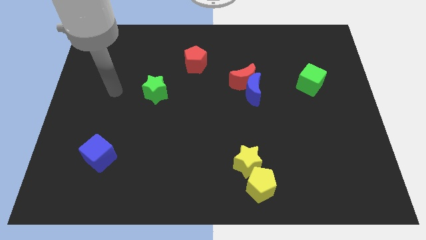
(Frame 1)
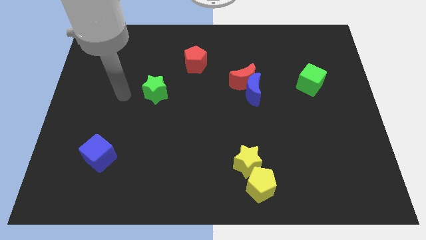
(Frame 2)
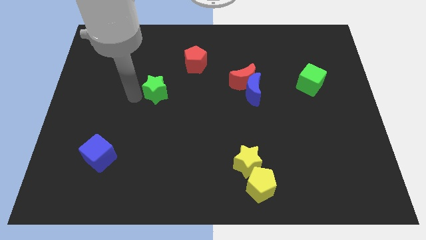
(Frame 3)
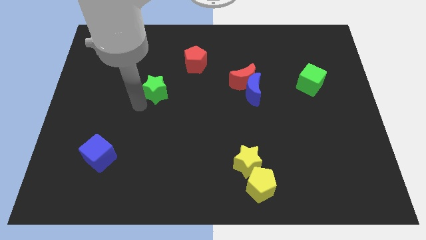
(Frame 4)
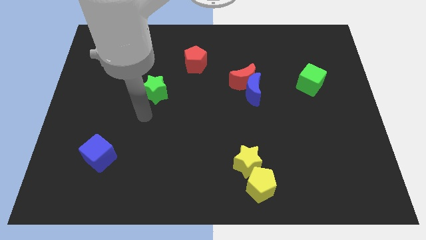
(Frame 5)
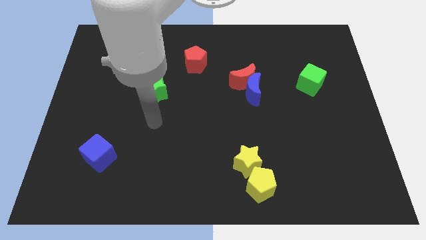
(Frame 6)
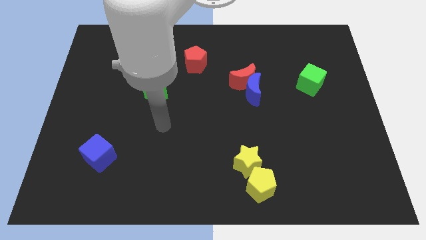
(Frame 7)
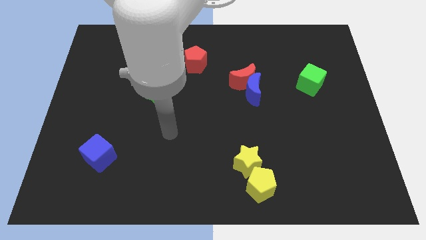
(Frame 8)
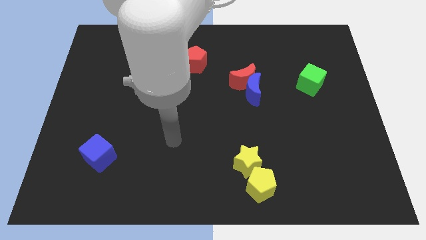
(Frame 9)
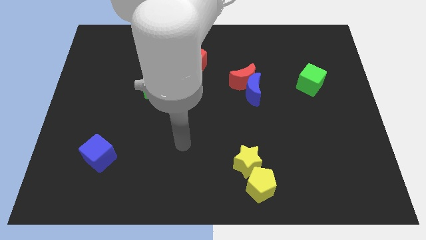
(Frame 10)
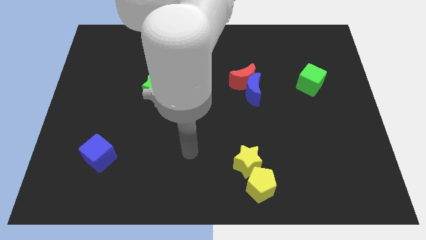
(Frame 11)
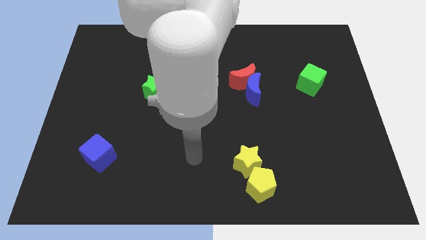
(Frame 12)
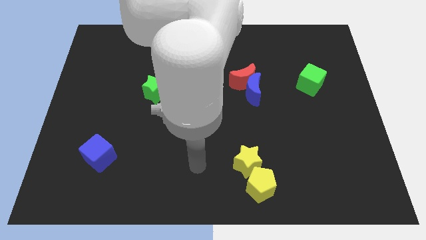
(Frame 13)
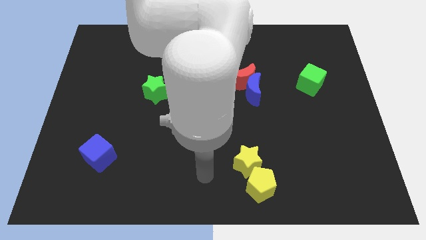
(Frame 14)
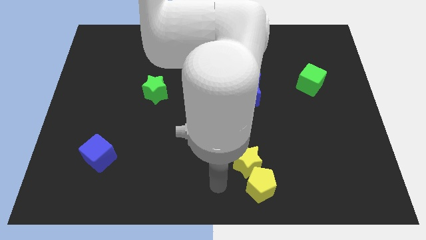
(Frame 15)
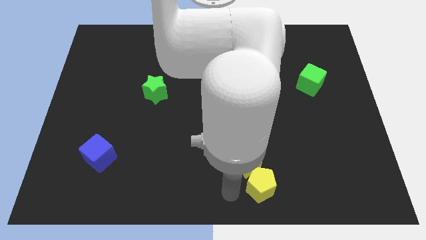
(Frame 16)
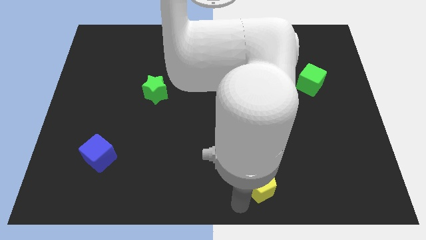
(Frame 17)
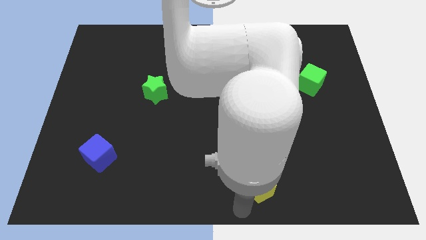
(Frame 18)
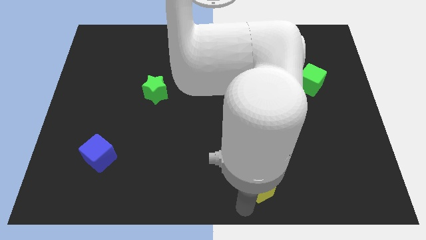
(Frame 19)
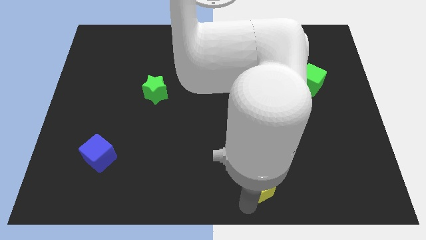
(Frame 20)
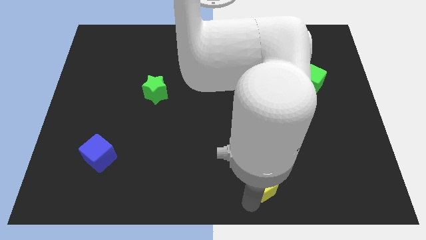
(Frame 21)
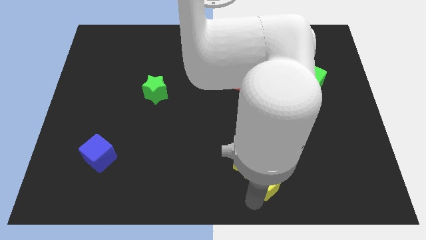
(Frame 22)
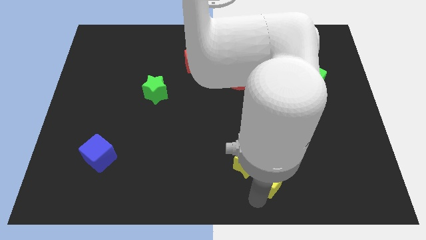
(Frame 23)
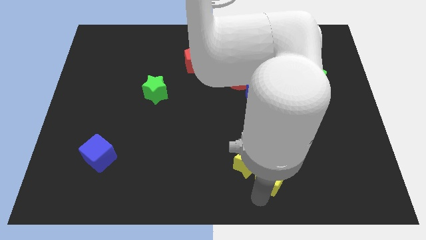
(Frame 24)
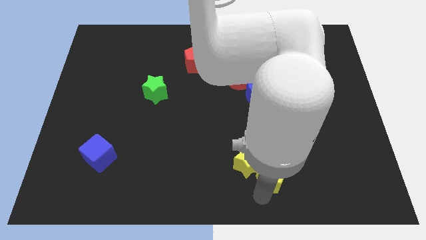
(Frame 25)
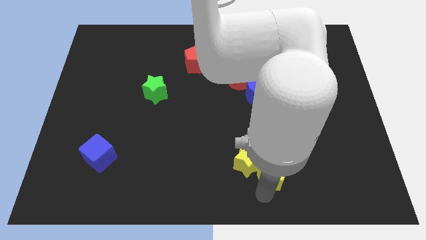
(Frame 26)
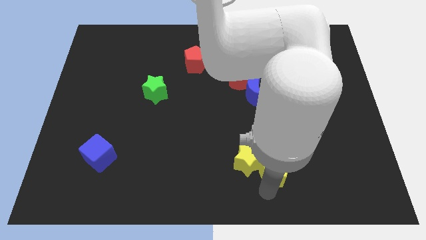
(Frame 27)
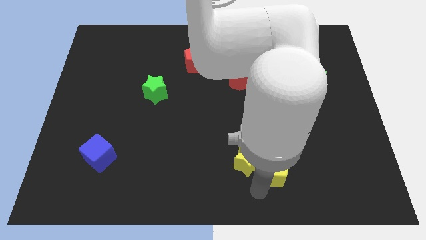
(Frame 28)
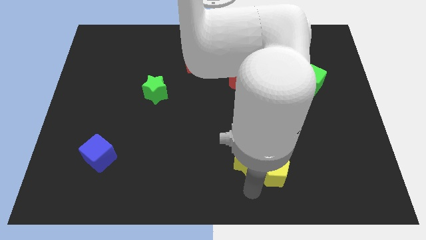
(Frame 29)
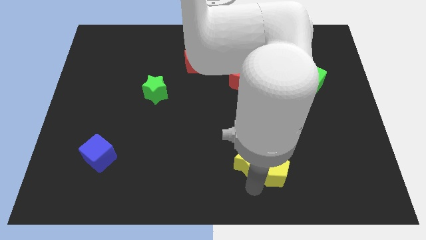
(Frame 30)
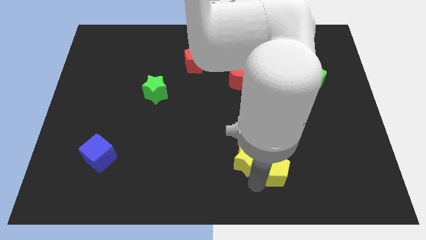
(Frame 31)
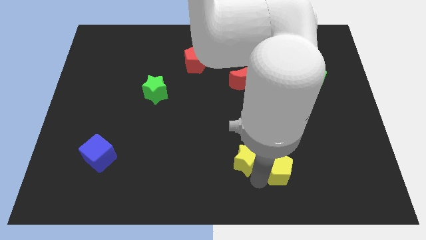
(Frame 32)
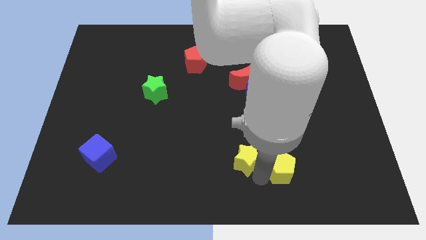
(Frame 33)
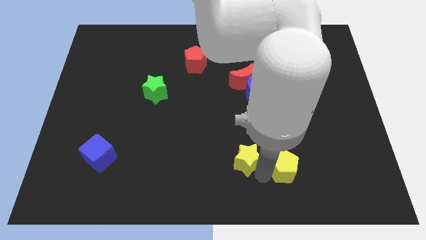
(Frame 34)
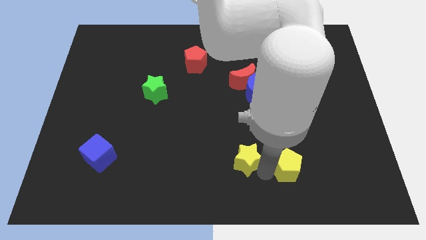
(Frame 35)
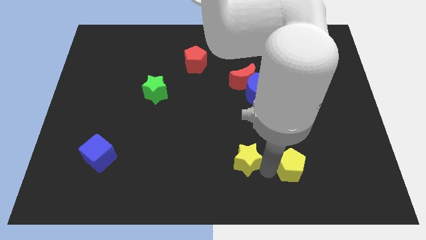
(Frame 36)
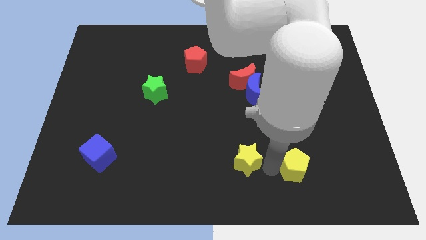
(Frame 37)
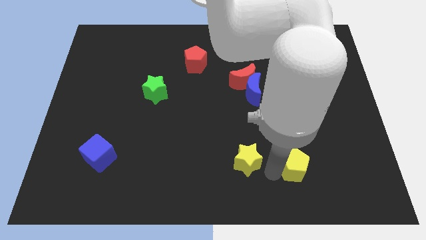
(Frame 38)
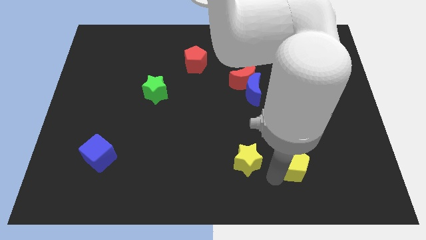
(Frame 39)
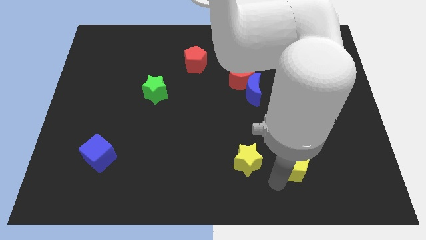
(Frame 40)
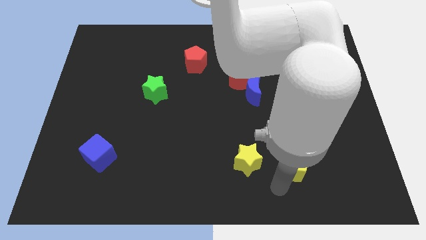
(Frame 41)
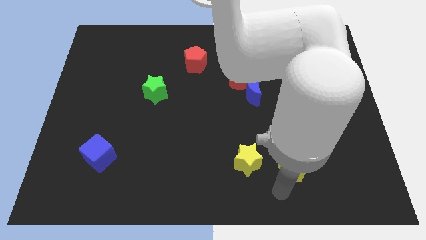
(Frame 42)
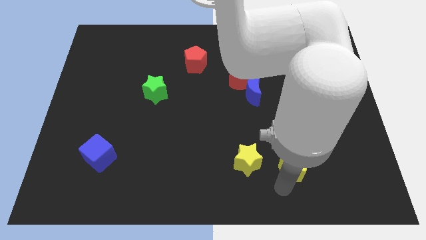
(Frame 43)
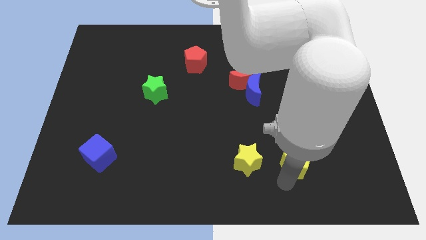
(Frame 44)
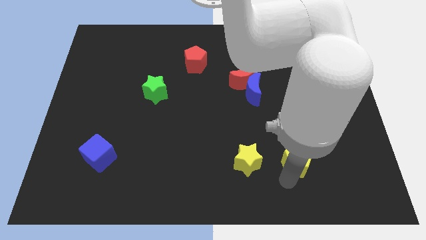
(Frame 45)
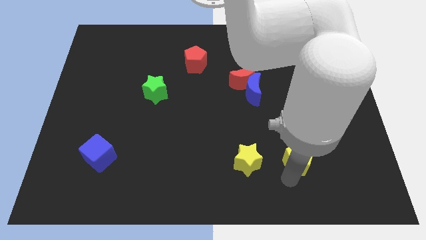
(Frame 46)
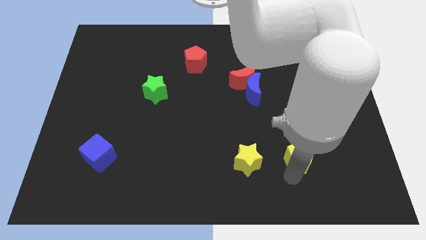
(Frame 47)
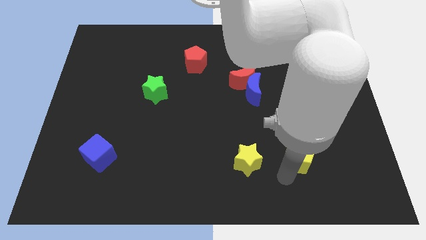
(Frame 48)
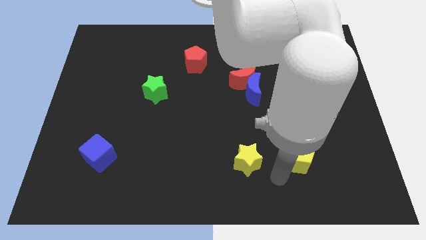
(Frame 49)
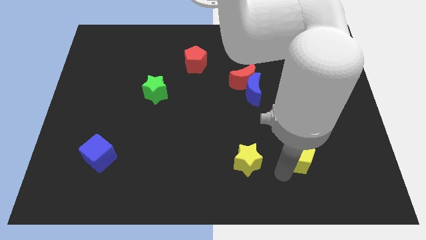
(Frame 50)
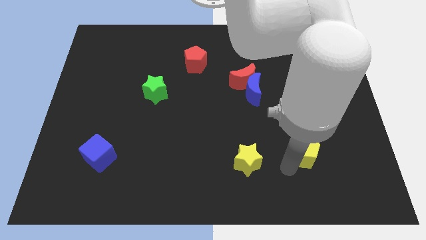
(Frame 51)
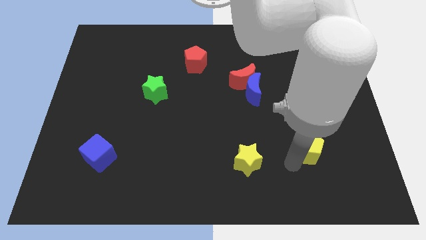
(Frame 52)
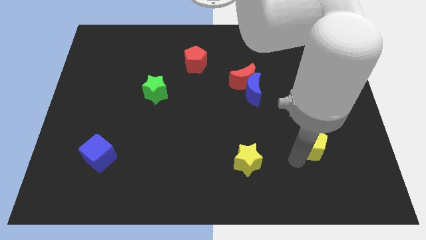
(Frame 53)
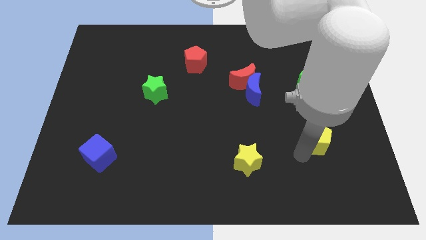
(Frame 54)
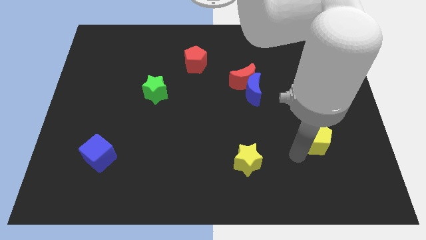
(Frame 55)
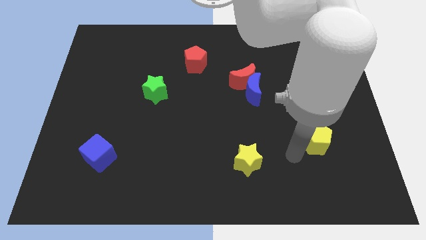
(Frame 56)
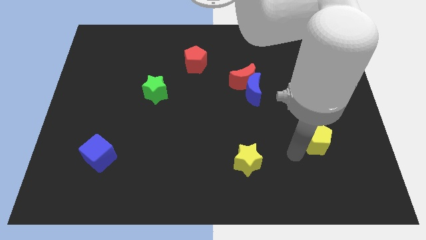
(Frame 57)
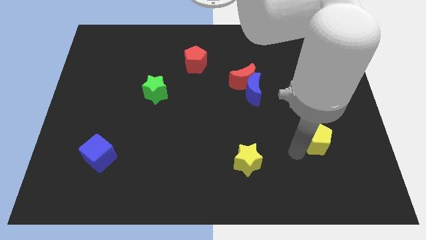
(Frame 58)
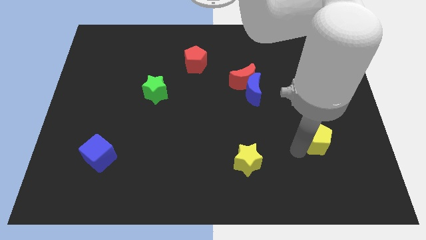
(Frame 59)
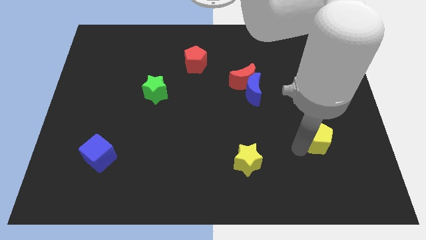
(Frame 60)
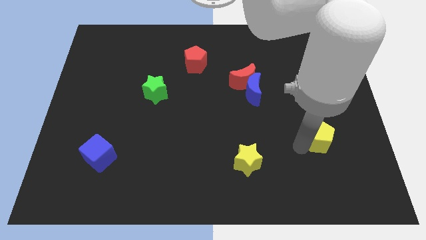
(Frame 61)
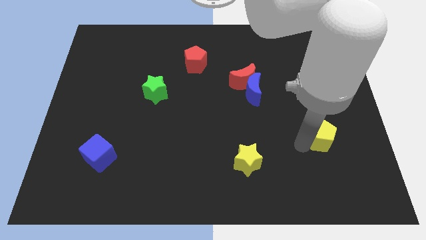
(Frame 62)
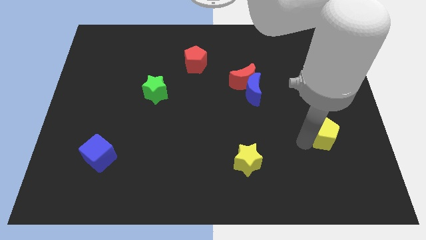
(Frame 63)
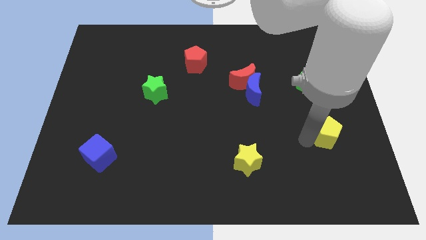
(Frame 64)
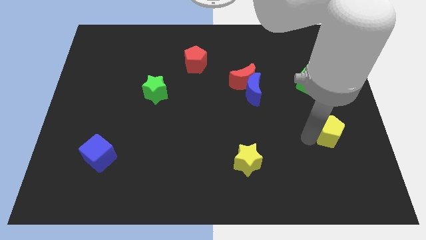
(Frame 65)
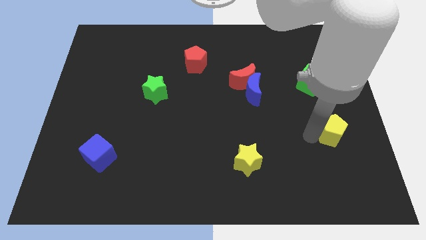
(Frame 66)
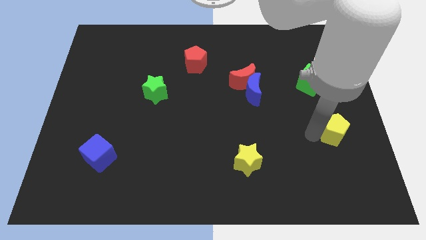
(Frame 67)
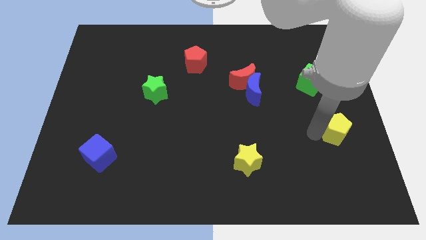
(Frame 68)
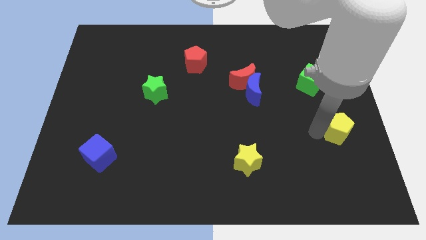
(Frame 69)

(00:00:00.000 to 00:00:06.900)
push the yellow pentagon to the center right
